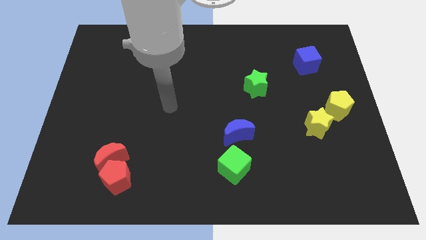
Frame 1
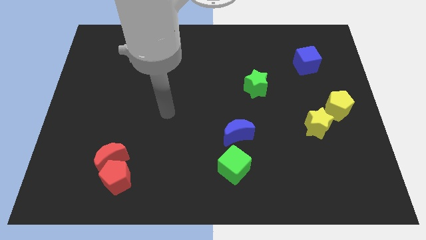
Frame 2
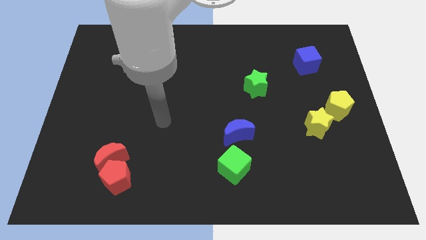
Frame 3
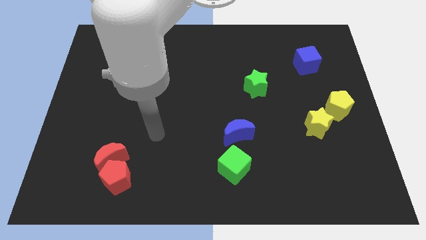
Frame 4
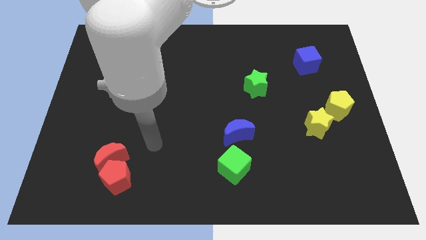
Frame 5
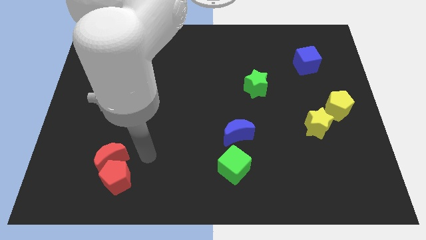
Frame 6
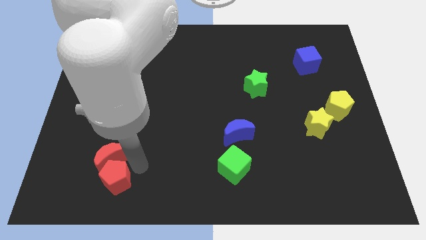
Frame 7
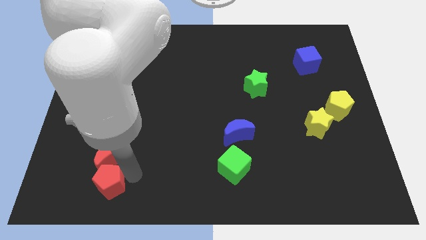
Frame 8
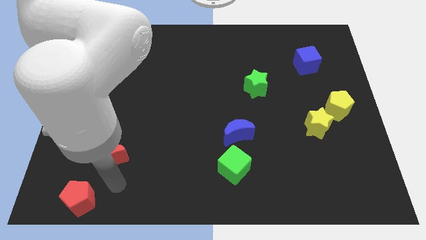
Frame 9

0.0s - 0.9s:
separate the red moon from the red pentagon

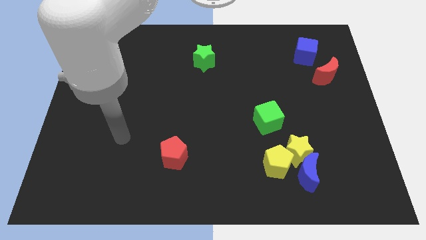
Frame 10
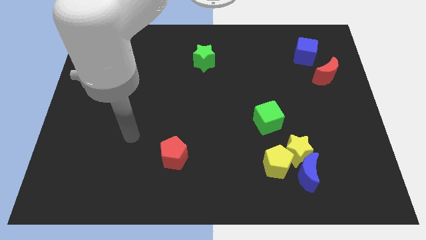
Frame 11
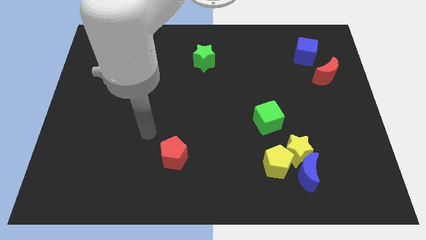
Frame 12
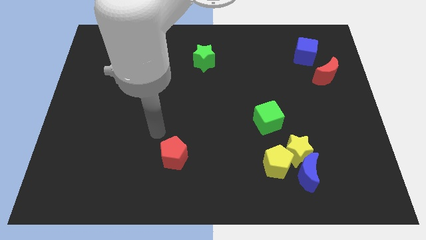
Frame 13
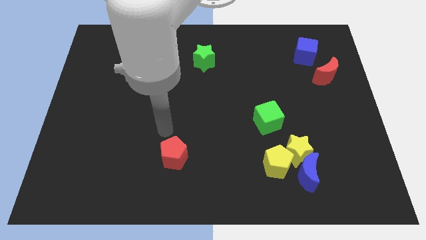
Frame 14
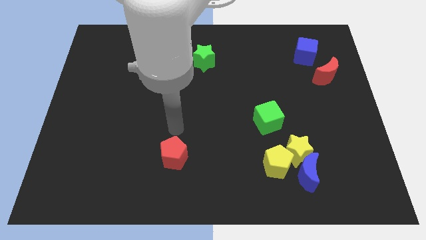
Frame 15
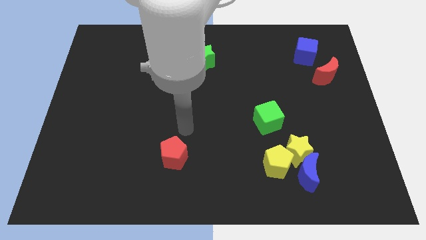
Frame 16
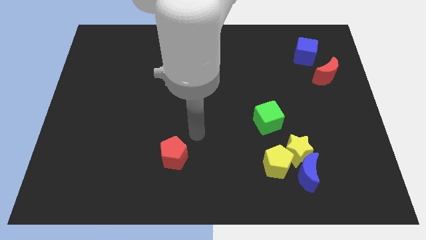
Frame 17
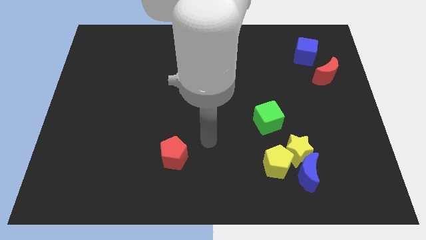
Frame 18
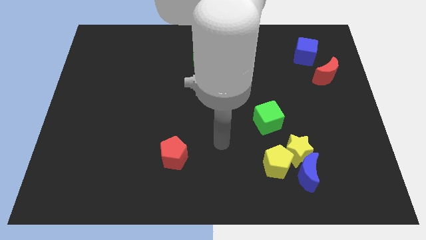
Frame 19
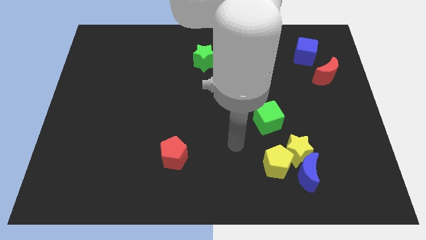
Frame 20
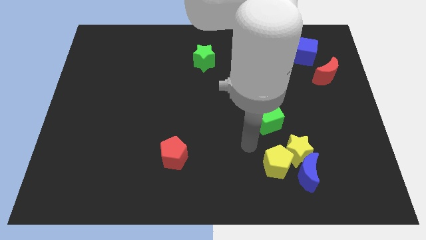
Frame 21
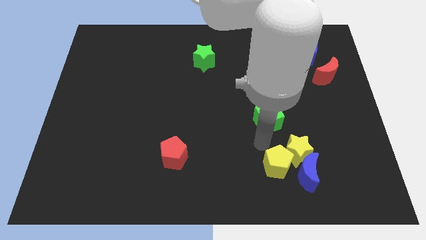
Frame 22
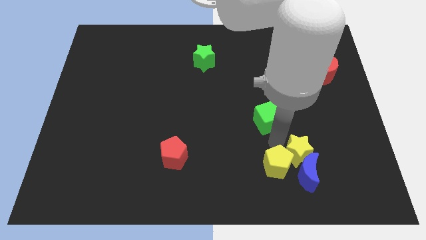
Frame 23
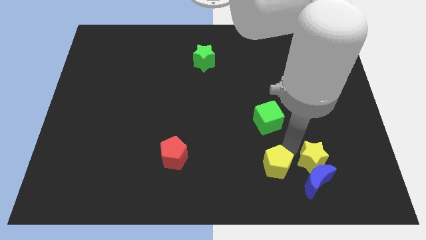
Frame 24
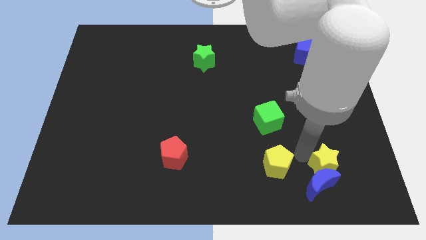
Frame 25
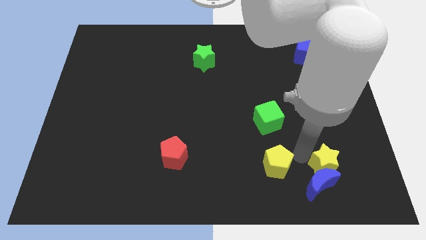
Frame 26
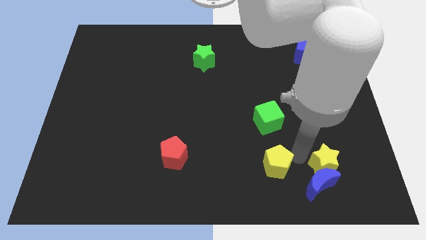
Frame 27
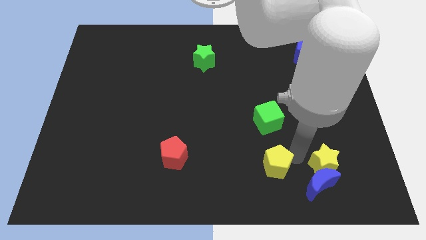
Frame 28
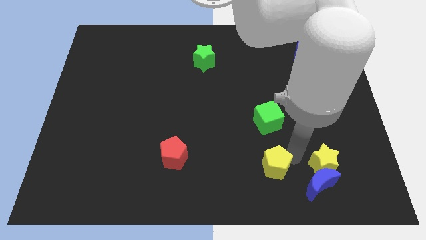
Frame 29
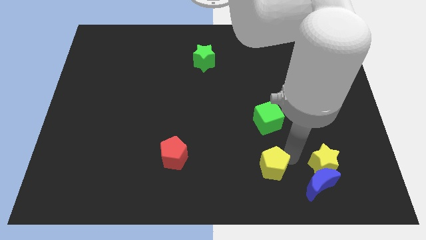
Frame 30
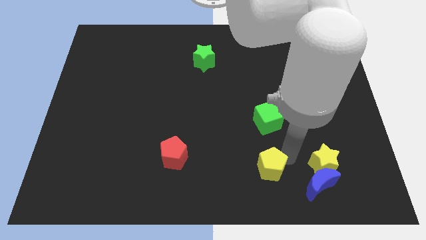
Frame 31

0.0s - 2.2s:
pull the yellow pentagon apart from the yellow star and blue moon

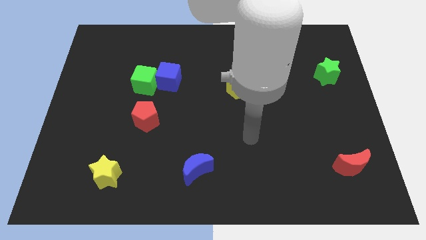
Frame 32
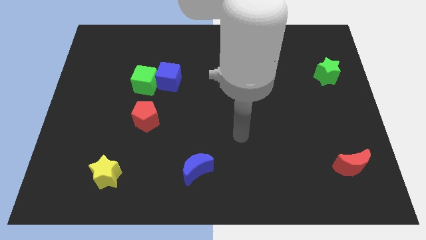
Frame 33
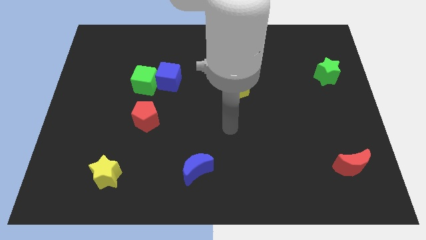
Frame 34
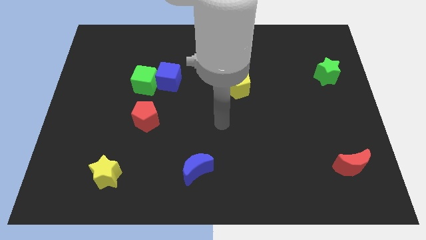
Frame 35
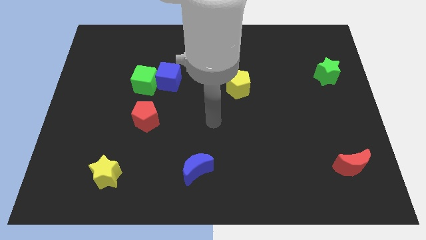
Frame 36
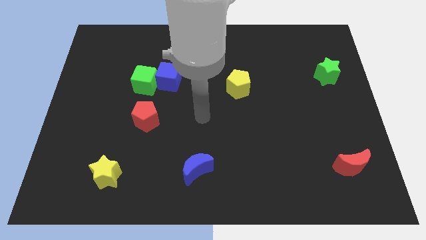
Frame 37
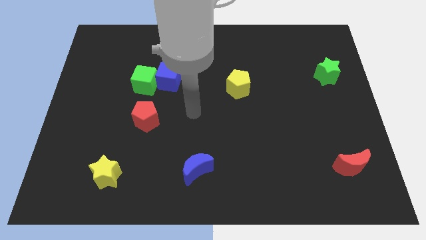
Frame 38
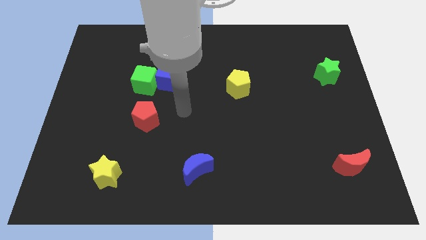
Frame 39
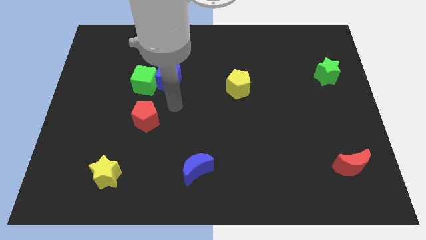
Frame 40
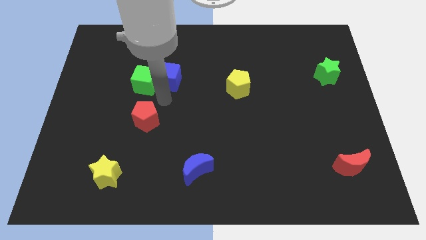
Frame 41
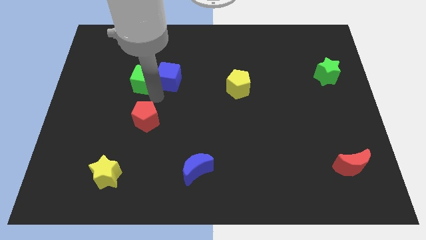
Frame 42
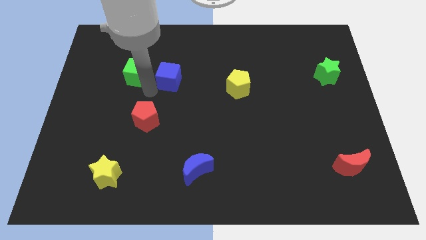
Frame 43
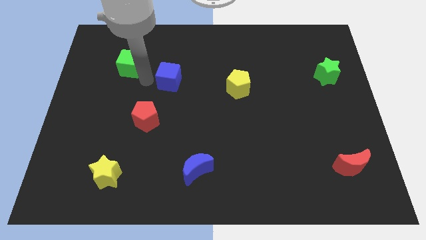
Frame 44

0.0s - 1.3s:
pull the blue cube apart from the green cube

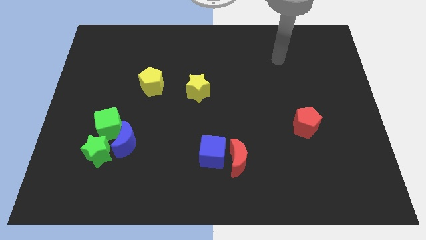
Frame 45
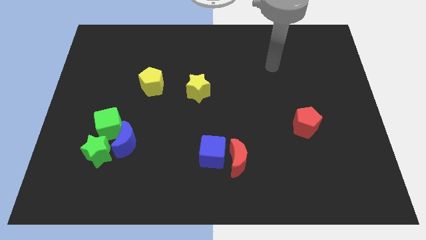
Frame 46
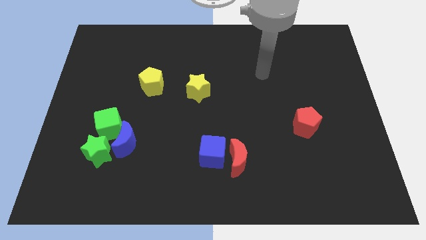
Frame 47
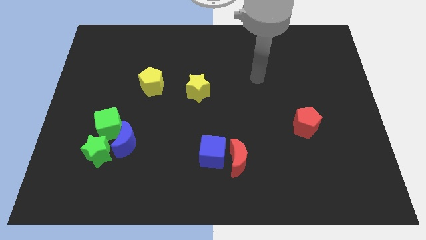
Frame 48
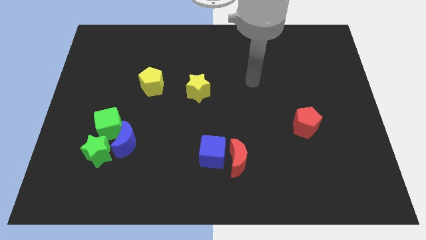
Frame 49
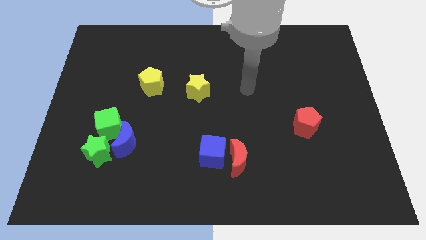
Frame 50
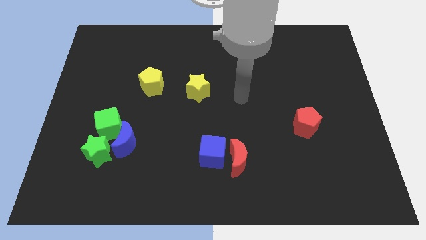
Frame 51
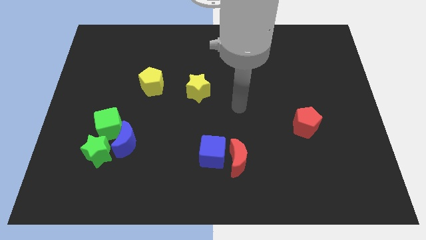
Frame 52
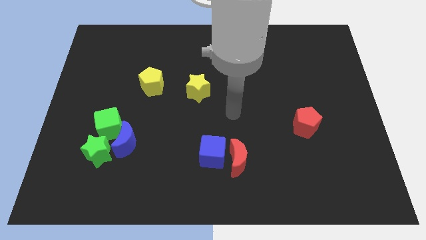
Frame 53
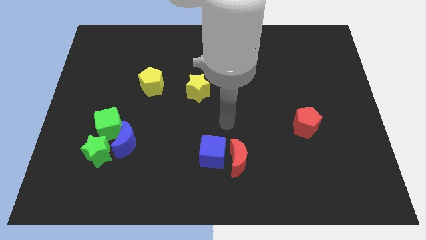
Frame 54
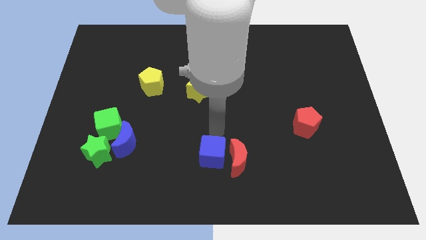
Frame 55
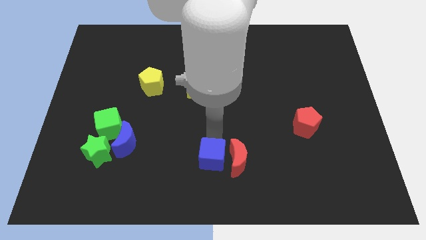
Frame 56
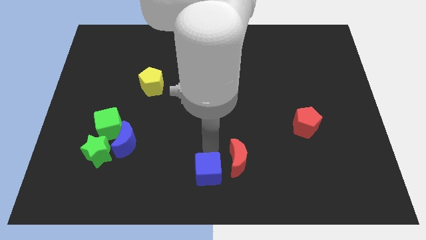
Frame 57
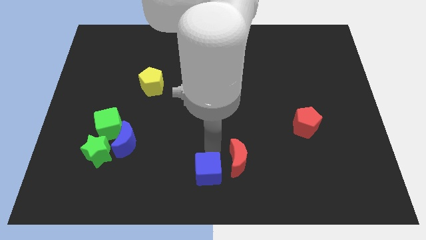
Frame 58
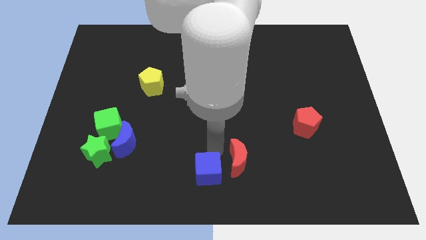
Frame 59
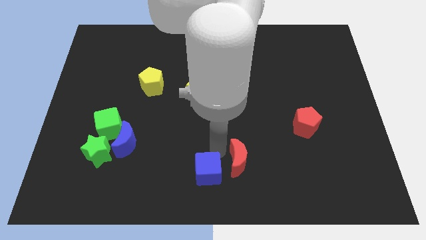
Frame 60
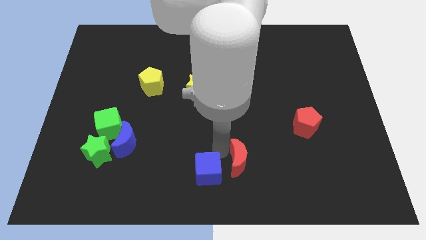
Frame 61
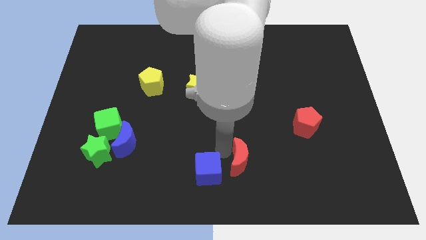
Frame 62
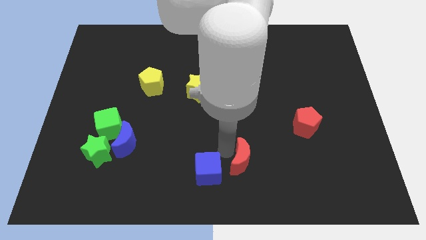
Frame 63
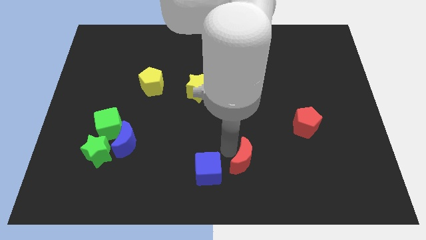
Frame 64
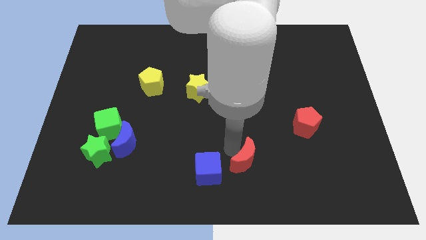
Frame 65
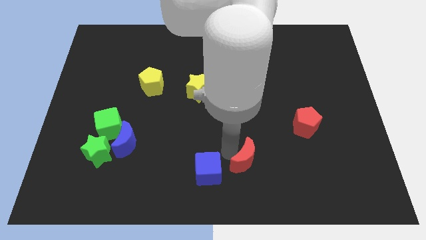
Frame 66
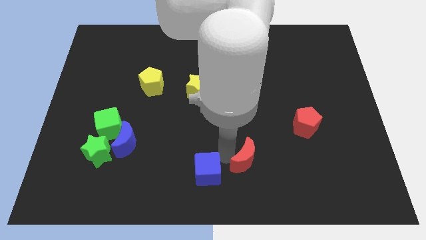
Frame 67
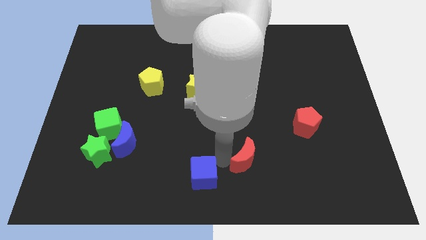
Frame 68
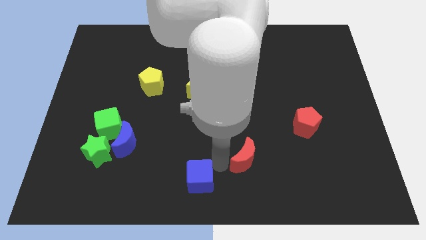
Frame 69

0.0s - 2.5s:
pull the red moon apart from the blue cube

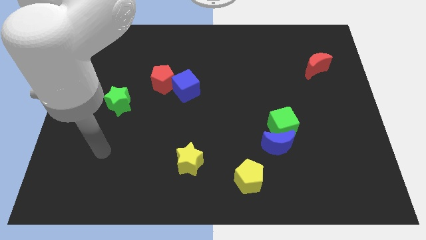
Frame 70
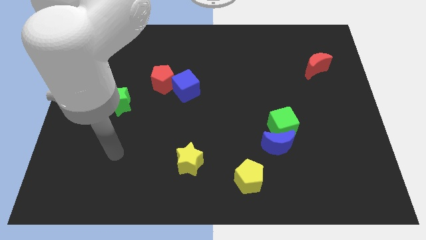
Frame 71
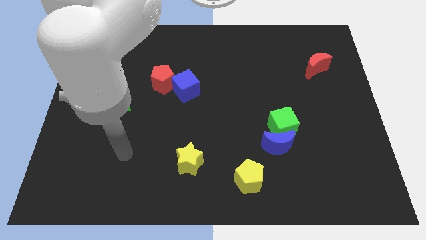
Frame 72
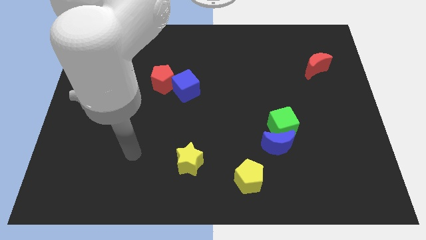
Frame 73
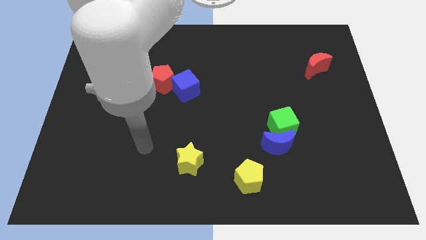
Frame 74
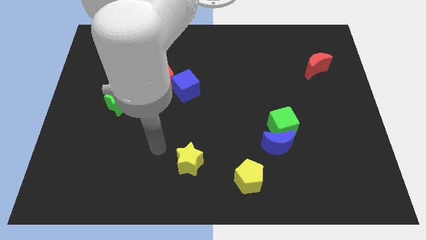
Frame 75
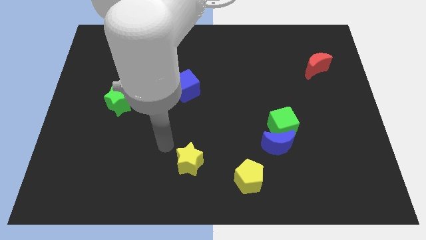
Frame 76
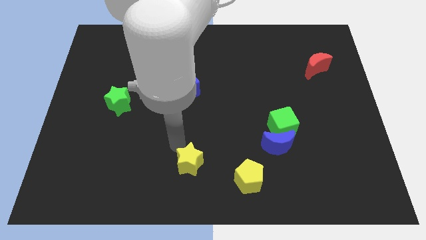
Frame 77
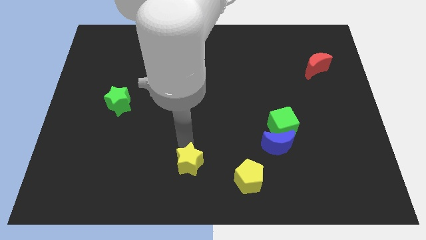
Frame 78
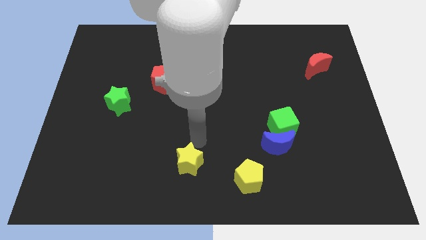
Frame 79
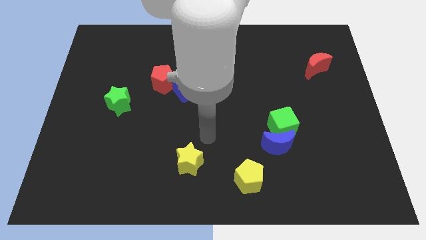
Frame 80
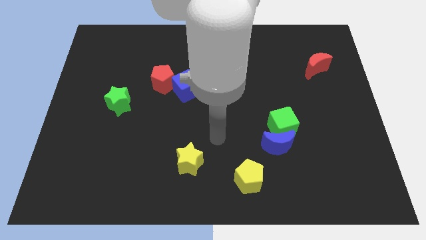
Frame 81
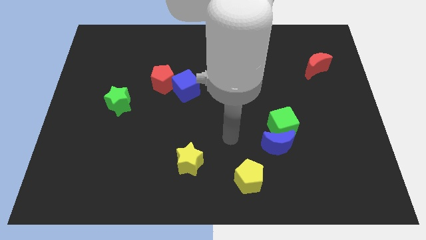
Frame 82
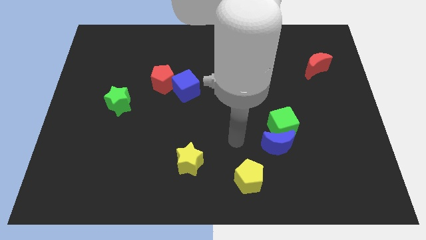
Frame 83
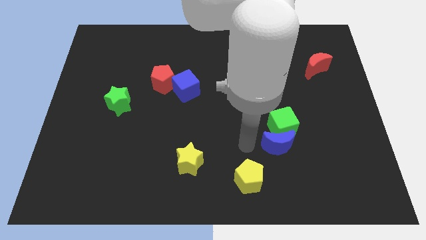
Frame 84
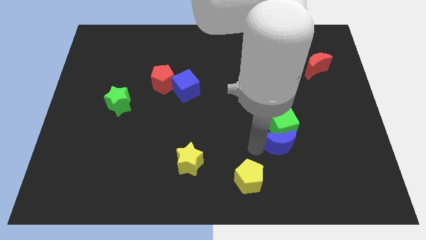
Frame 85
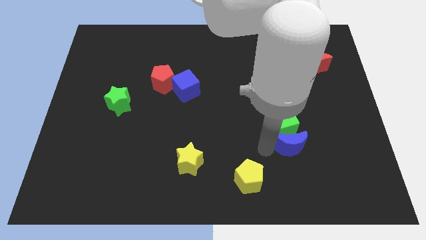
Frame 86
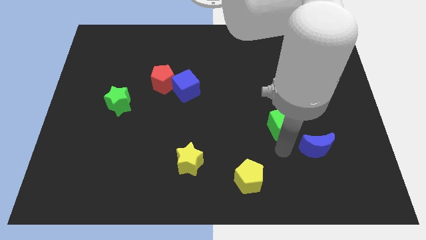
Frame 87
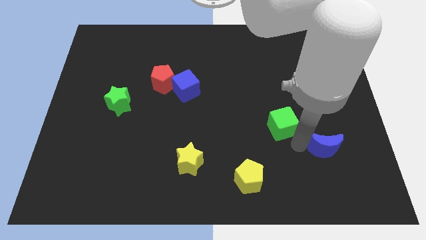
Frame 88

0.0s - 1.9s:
separate the green cube from the blue moon

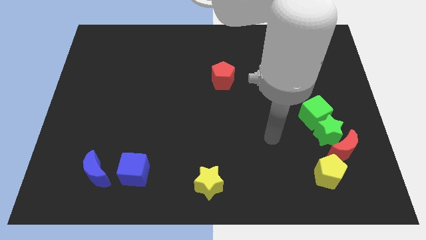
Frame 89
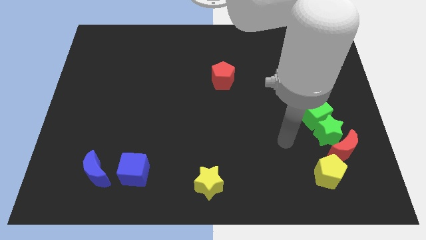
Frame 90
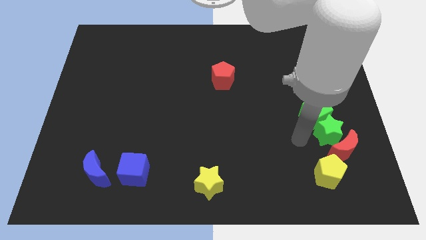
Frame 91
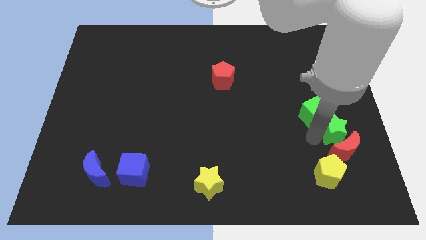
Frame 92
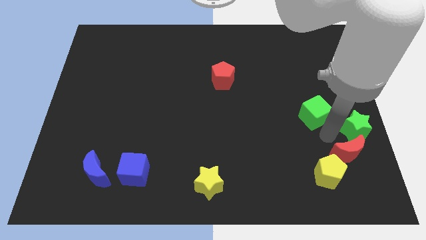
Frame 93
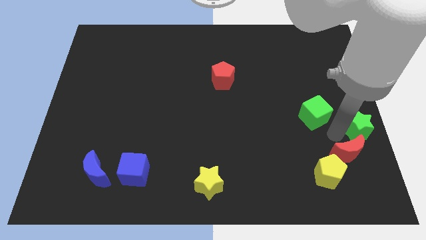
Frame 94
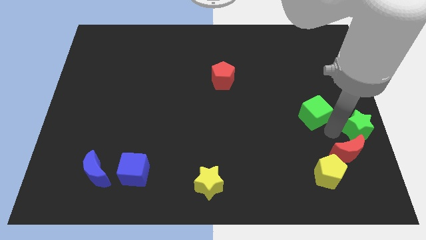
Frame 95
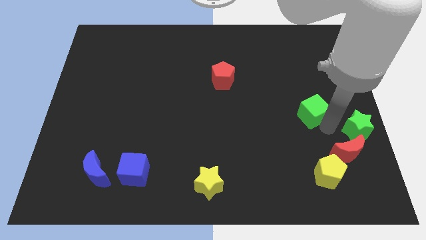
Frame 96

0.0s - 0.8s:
move the green cube away from the green star
